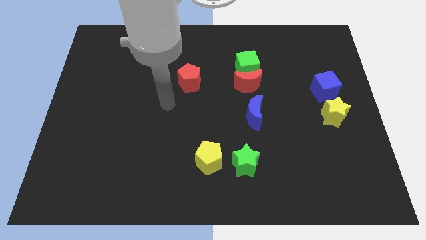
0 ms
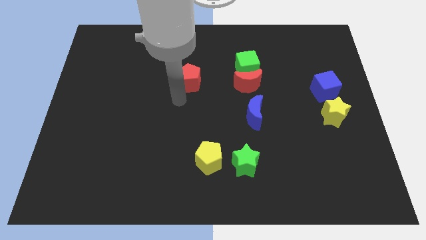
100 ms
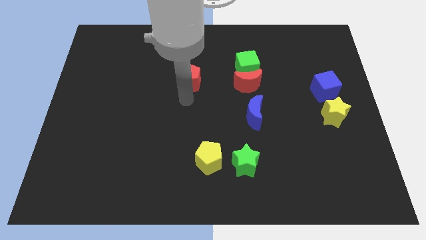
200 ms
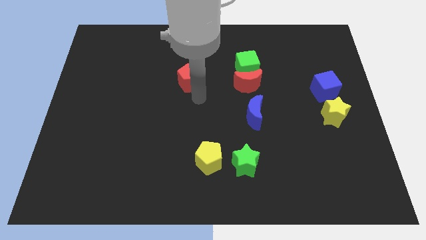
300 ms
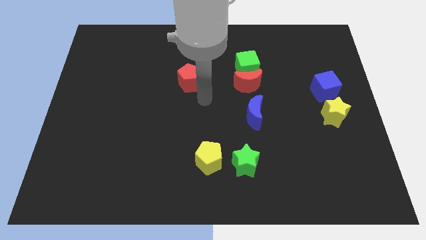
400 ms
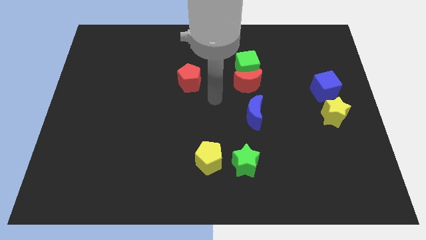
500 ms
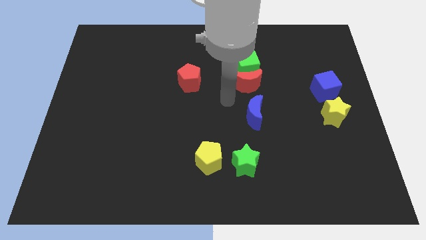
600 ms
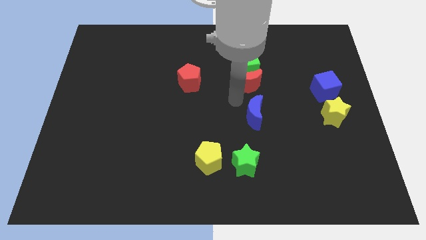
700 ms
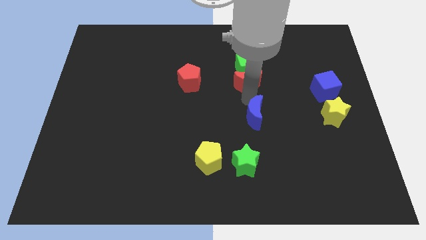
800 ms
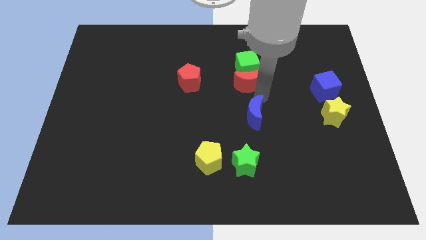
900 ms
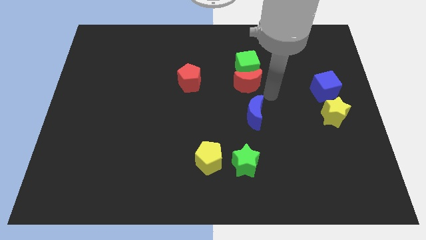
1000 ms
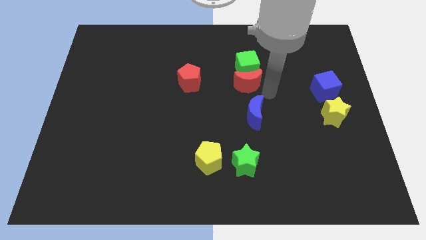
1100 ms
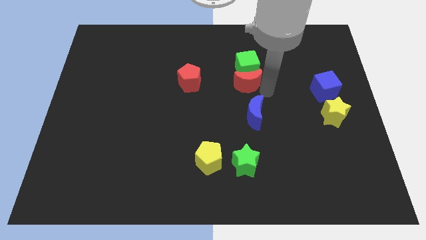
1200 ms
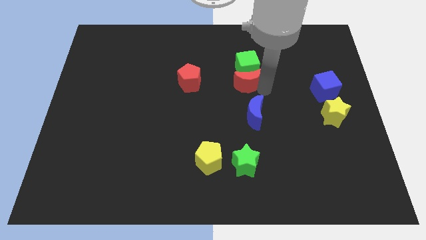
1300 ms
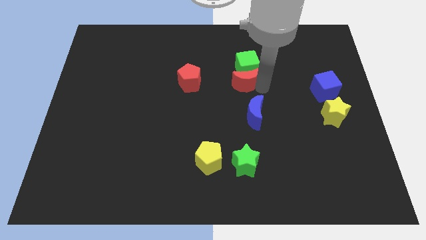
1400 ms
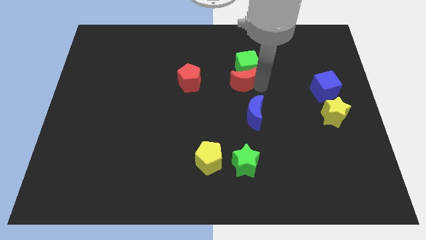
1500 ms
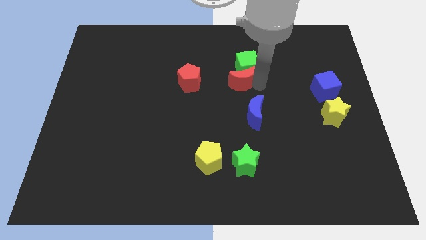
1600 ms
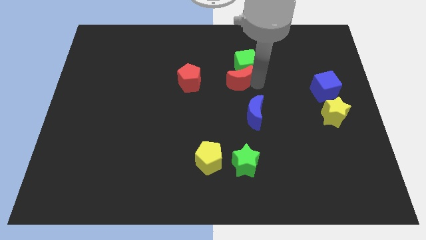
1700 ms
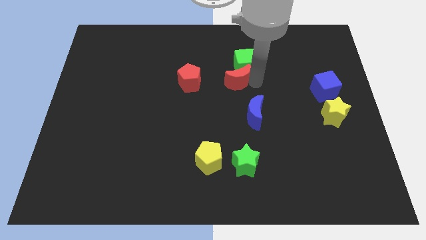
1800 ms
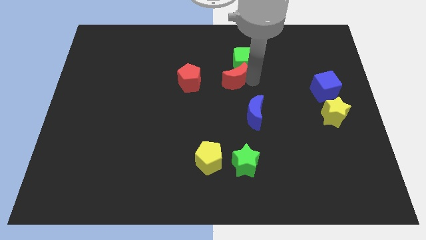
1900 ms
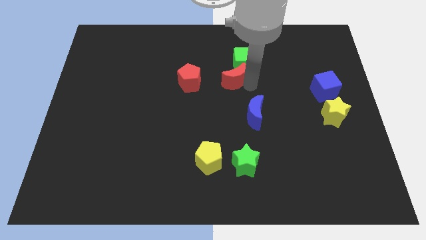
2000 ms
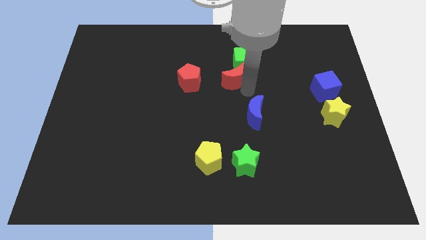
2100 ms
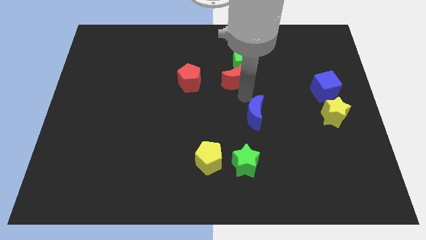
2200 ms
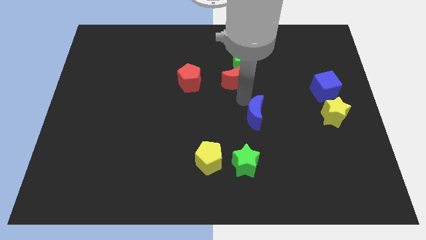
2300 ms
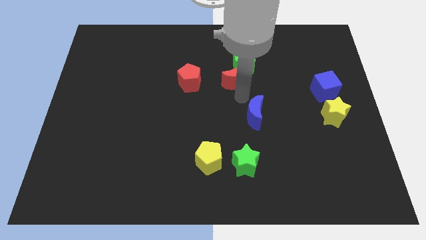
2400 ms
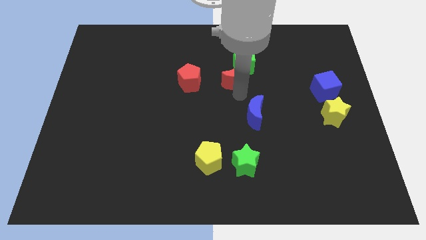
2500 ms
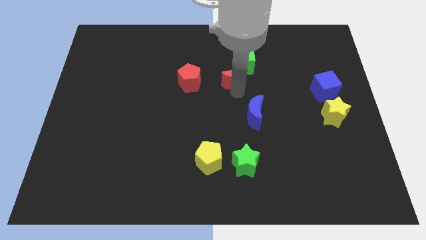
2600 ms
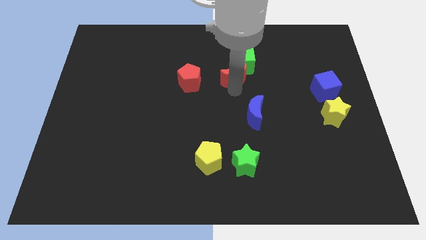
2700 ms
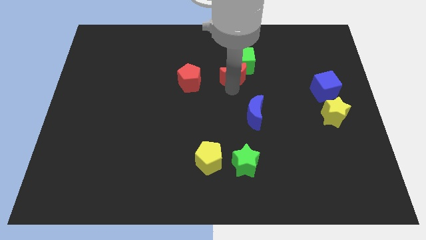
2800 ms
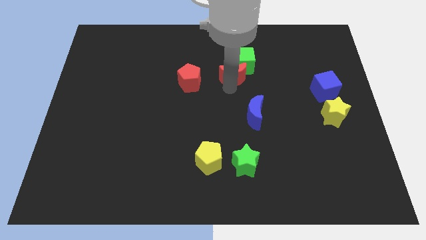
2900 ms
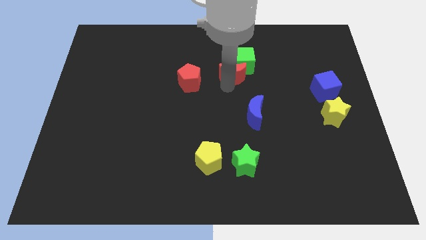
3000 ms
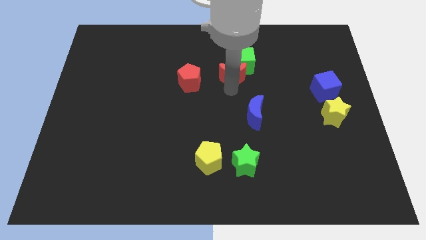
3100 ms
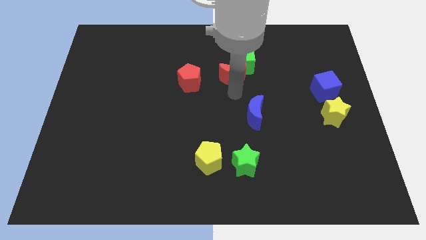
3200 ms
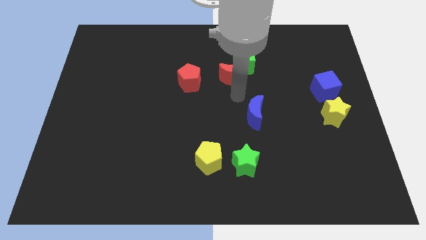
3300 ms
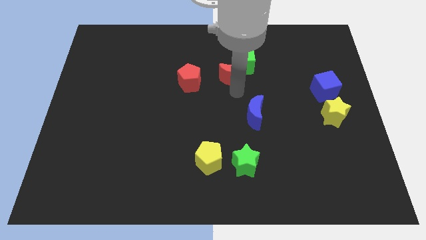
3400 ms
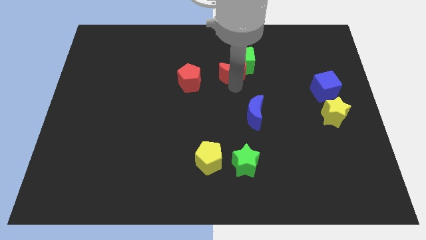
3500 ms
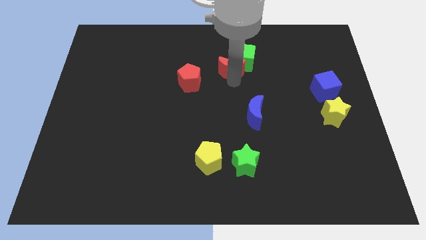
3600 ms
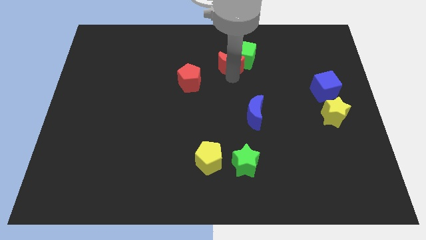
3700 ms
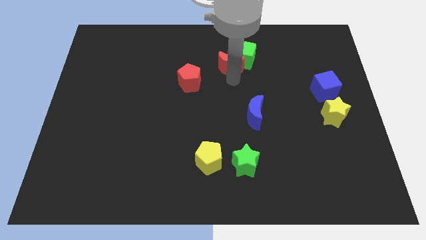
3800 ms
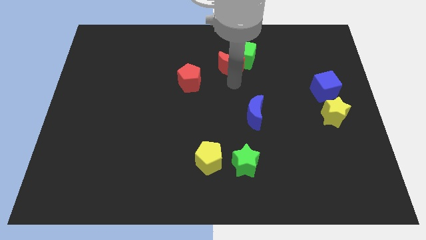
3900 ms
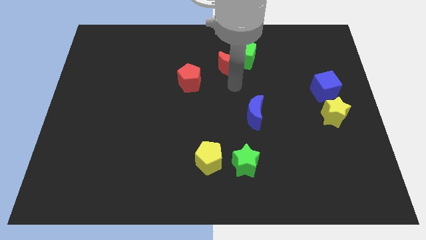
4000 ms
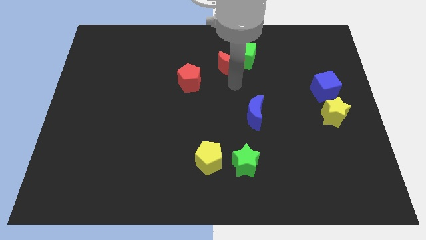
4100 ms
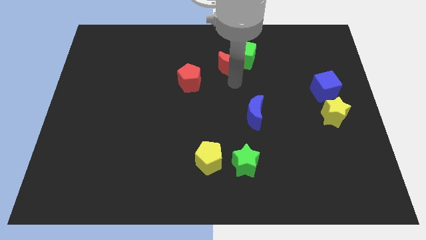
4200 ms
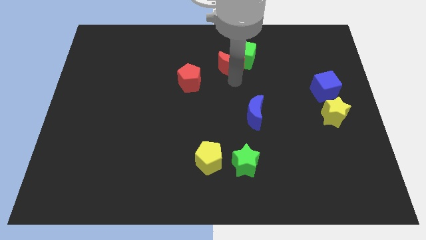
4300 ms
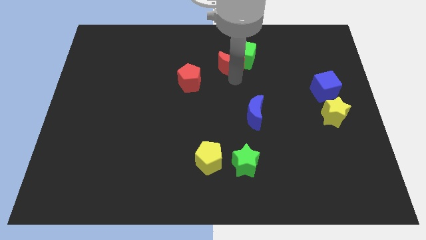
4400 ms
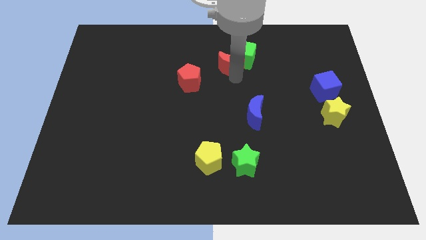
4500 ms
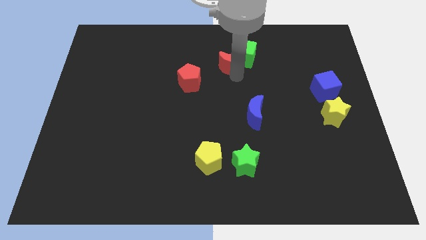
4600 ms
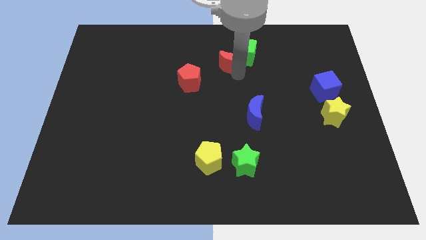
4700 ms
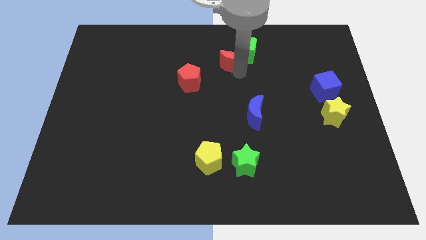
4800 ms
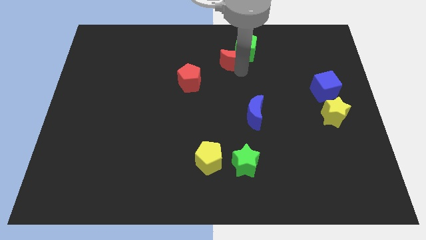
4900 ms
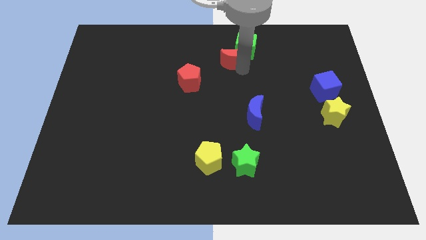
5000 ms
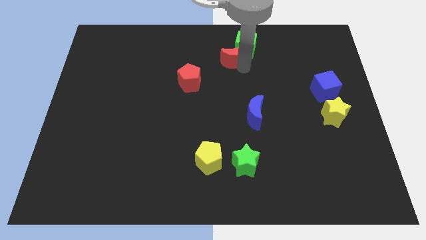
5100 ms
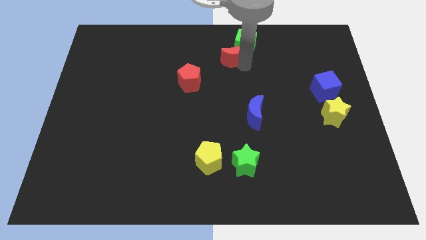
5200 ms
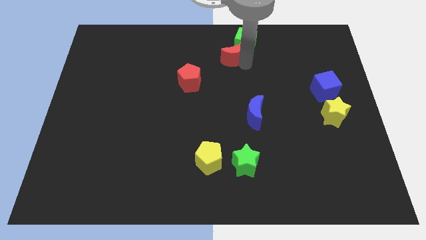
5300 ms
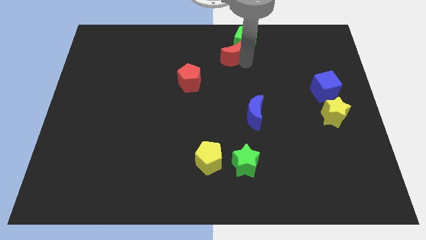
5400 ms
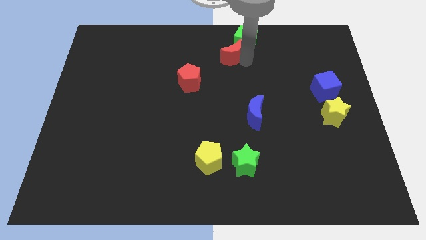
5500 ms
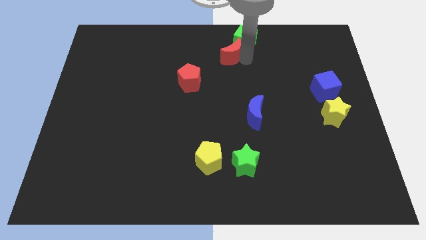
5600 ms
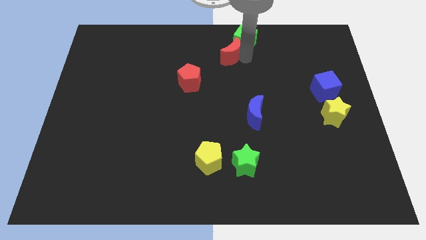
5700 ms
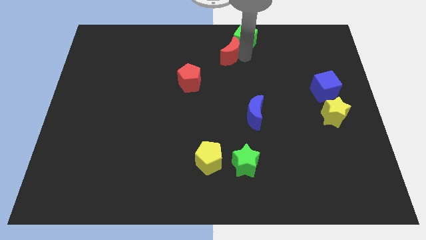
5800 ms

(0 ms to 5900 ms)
put the red moon to the towards your base

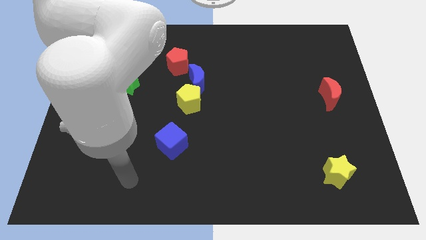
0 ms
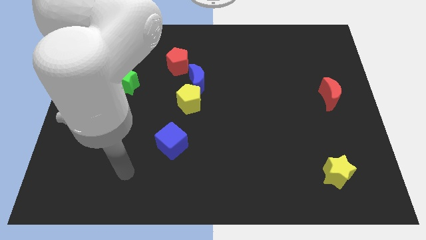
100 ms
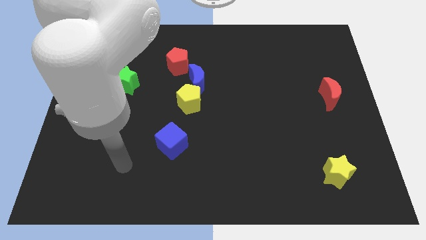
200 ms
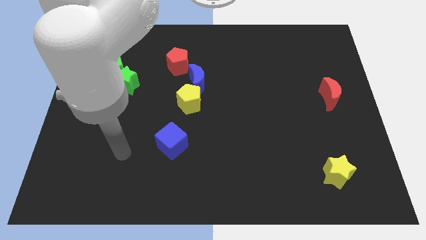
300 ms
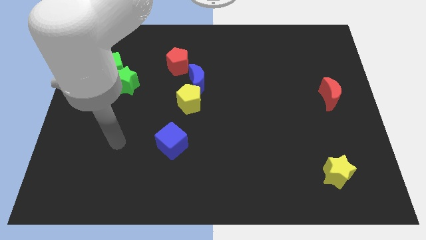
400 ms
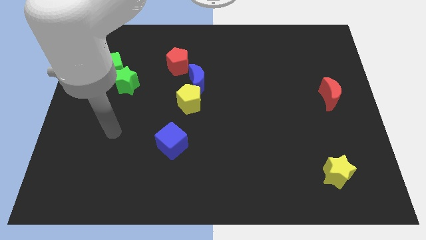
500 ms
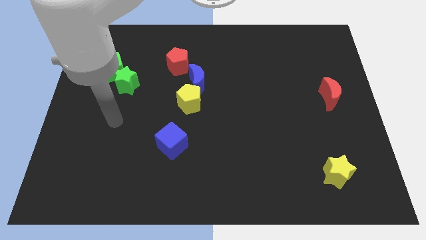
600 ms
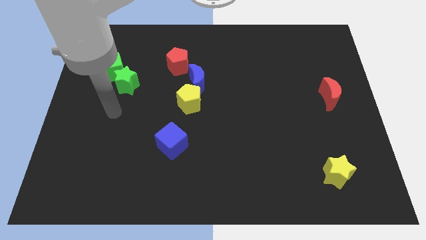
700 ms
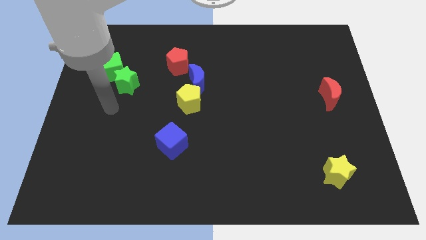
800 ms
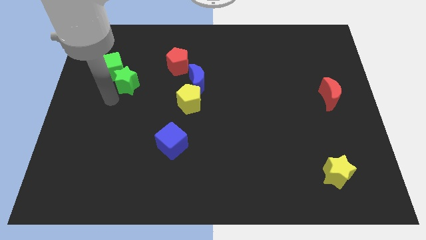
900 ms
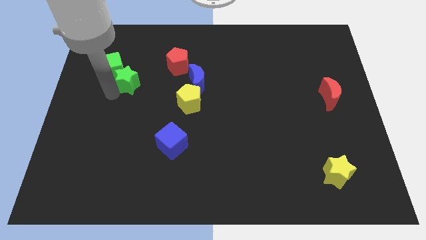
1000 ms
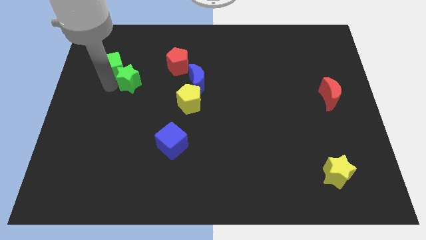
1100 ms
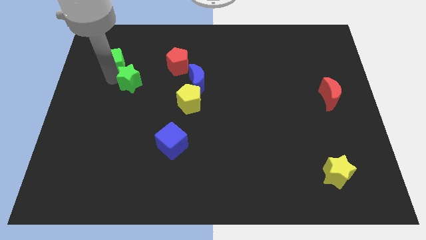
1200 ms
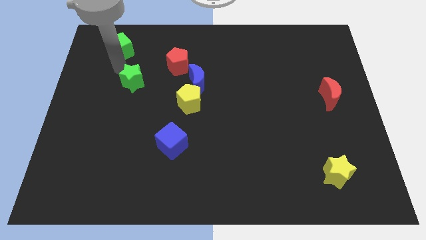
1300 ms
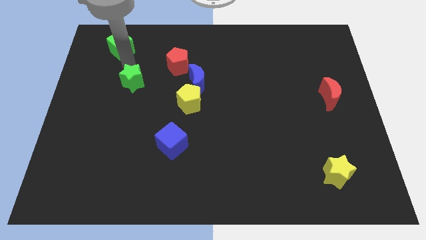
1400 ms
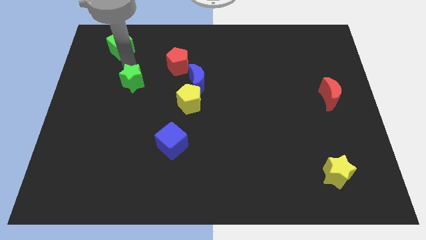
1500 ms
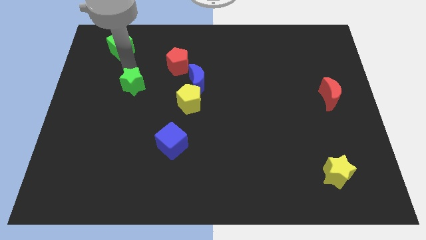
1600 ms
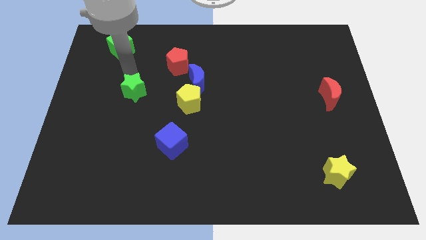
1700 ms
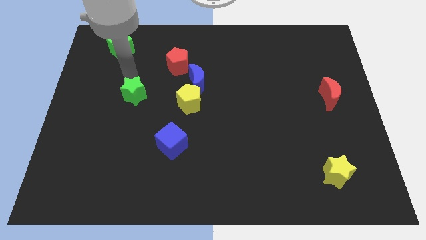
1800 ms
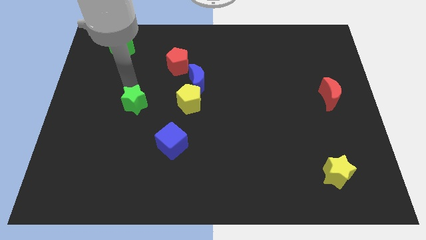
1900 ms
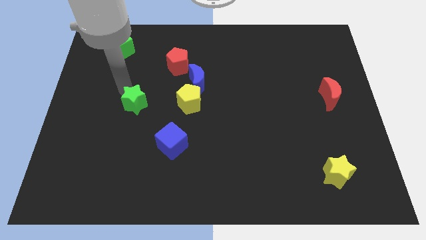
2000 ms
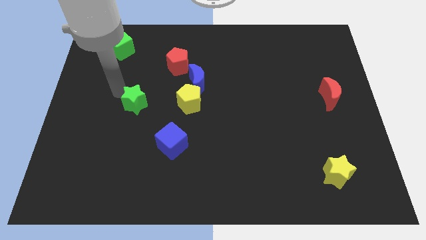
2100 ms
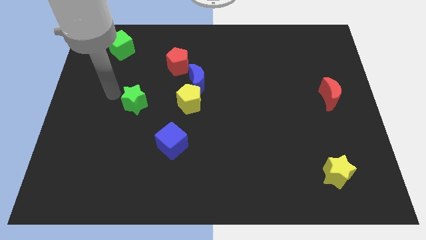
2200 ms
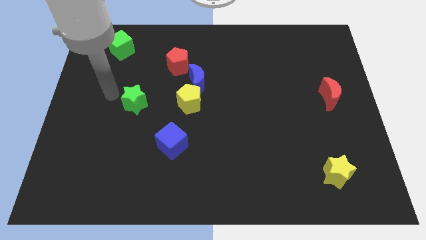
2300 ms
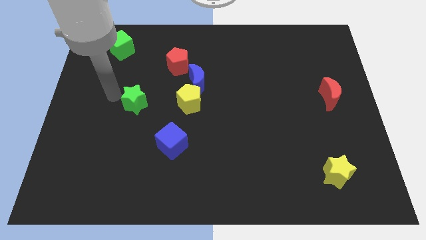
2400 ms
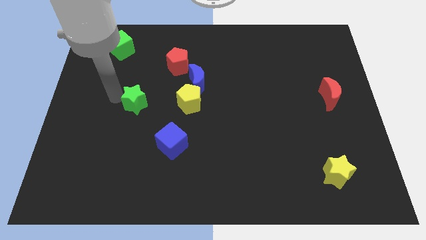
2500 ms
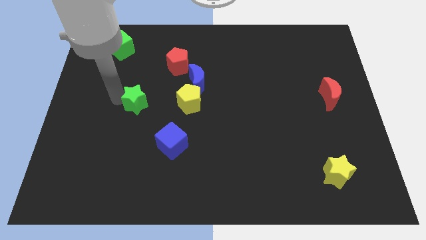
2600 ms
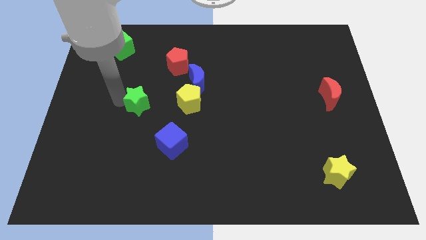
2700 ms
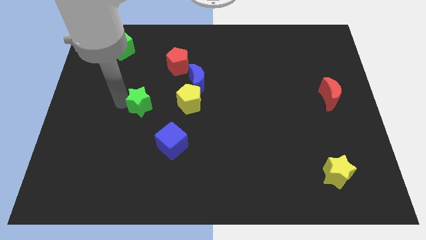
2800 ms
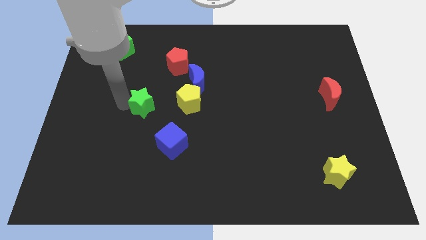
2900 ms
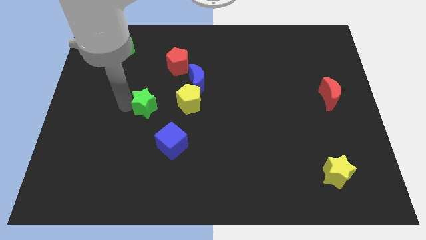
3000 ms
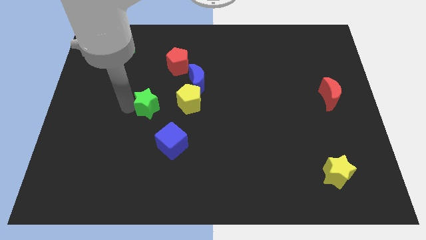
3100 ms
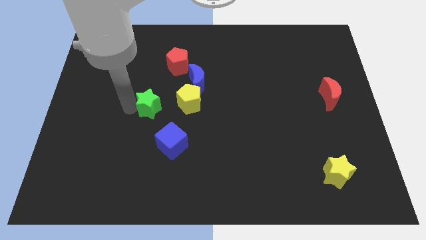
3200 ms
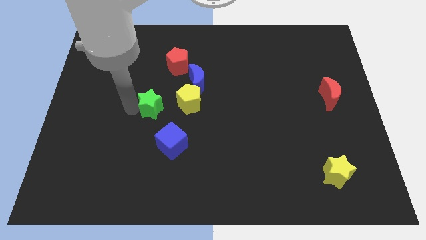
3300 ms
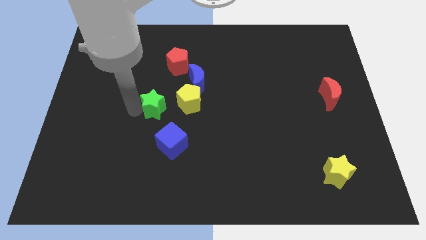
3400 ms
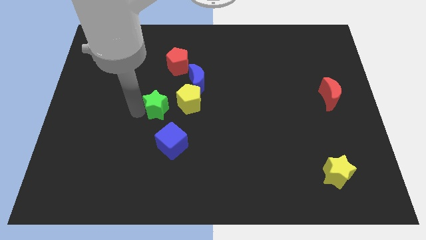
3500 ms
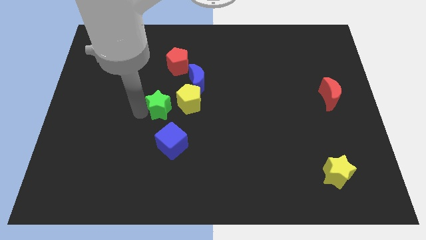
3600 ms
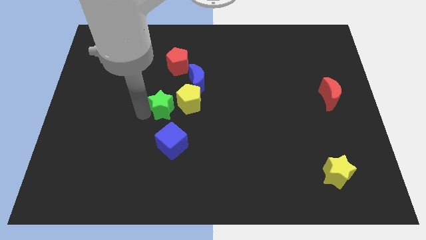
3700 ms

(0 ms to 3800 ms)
put the green star to the center of the board
